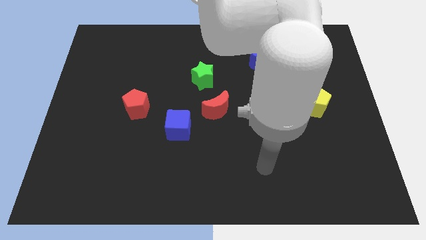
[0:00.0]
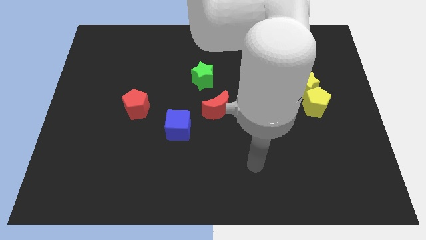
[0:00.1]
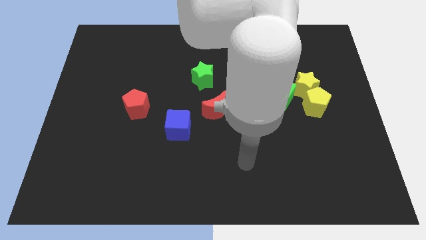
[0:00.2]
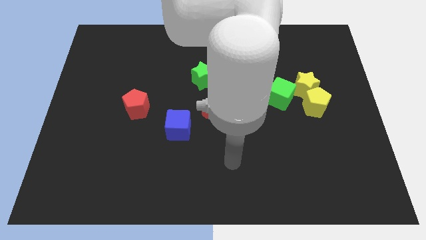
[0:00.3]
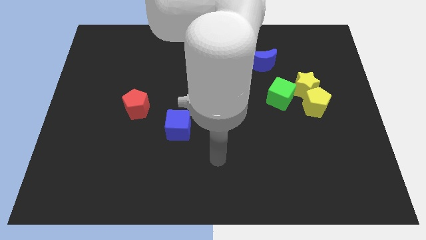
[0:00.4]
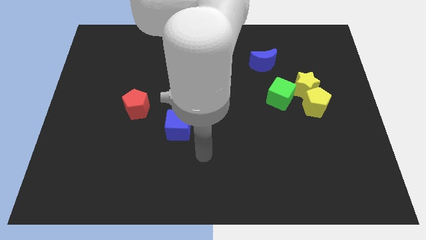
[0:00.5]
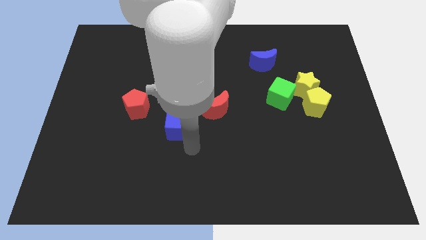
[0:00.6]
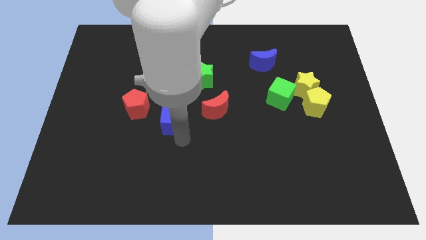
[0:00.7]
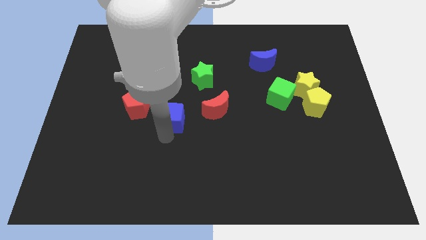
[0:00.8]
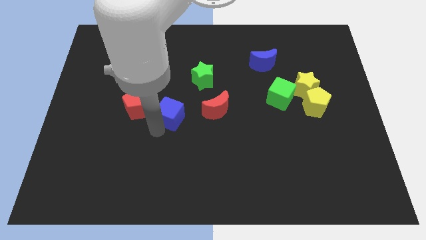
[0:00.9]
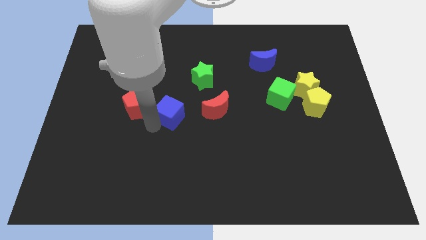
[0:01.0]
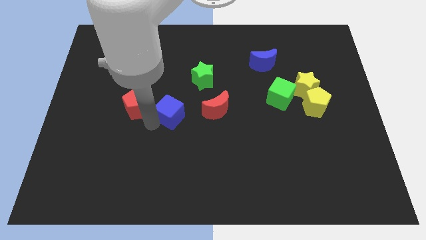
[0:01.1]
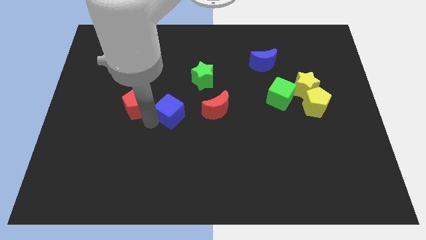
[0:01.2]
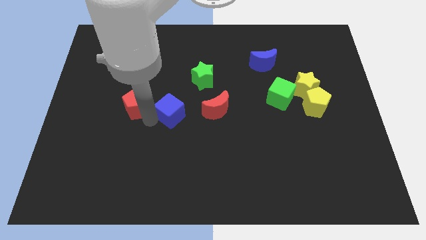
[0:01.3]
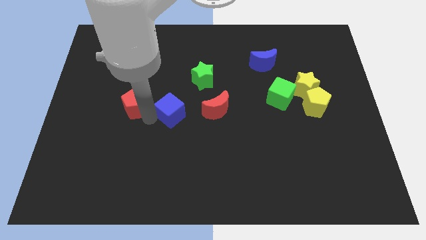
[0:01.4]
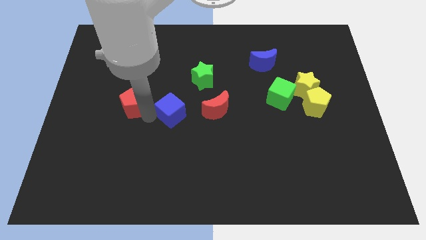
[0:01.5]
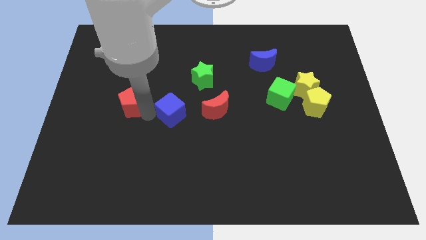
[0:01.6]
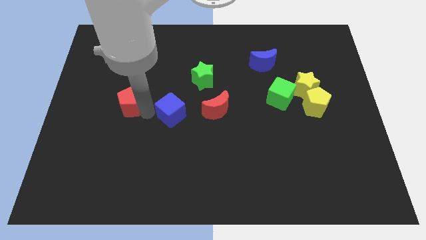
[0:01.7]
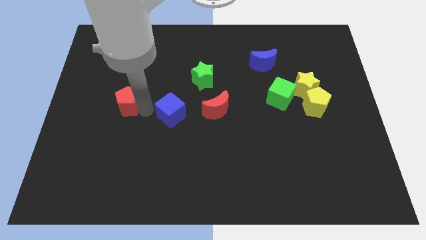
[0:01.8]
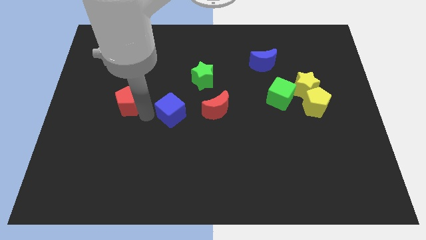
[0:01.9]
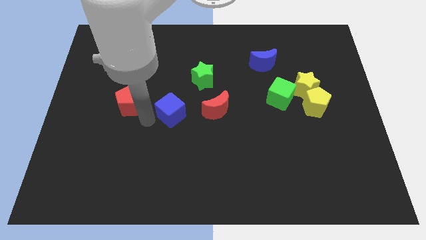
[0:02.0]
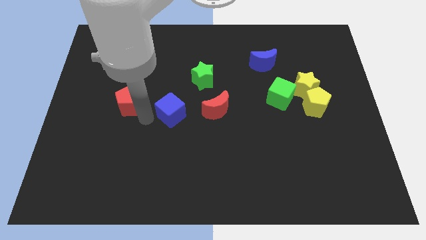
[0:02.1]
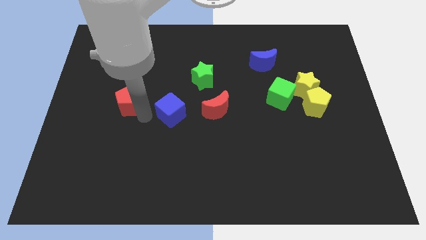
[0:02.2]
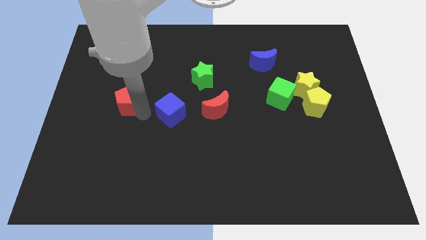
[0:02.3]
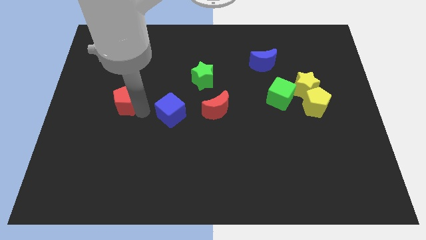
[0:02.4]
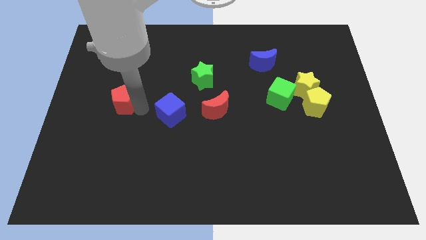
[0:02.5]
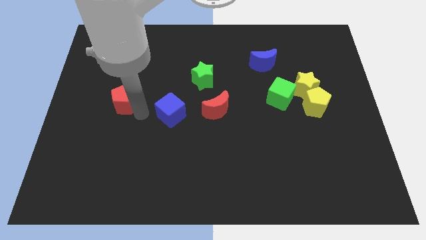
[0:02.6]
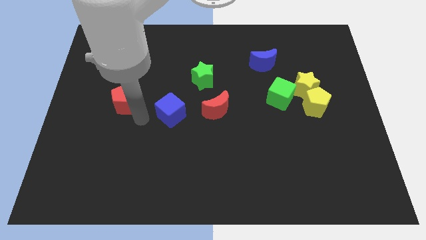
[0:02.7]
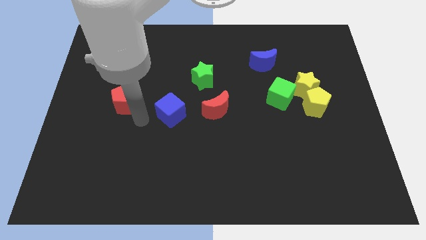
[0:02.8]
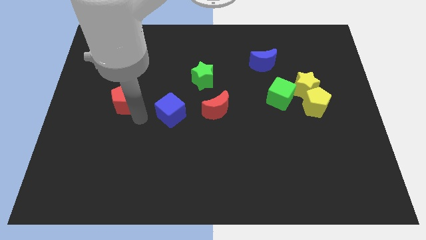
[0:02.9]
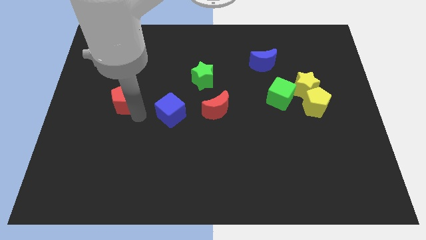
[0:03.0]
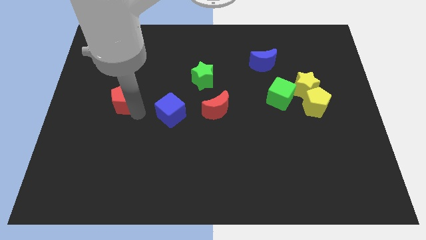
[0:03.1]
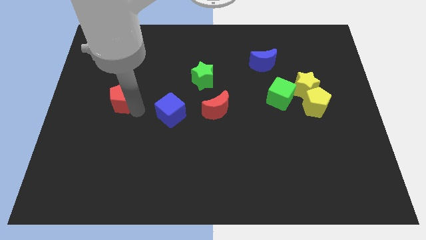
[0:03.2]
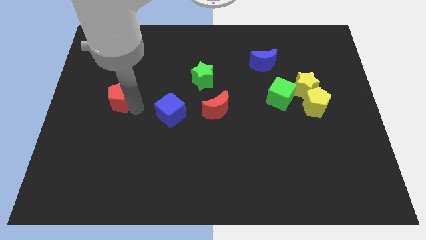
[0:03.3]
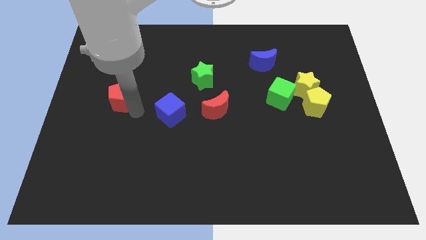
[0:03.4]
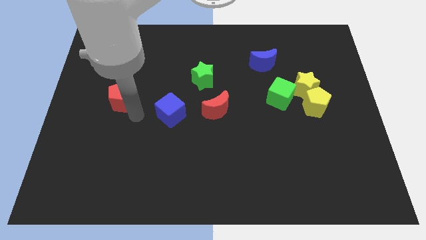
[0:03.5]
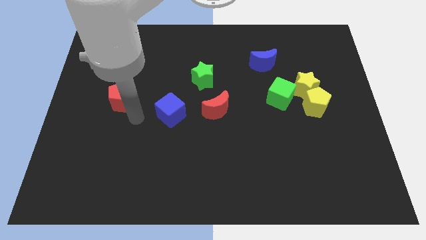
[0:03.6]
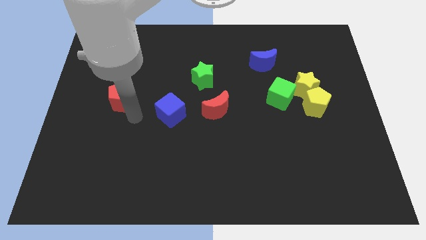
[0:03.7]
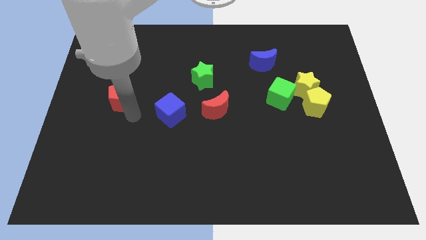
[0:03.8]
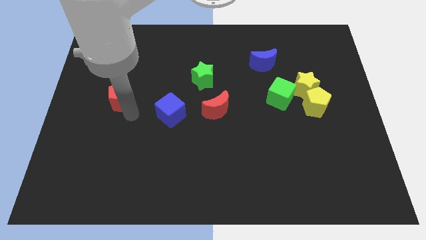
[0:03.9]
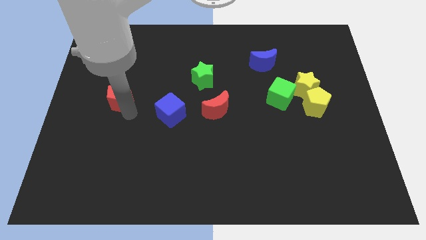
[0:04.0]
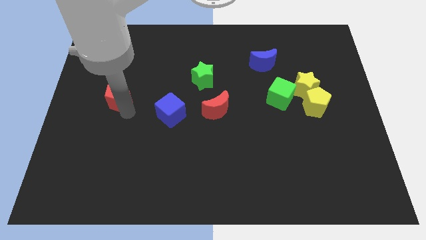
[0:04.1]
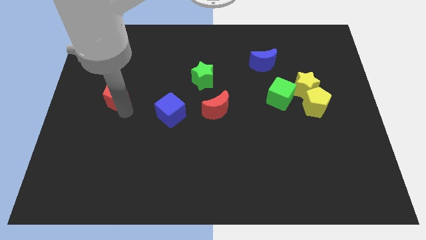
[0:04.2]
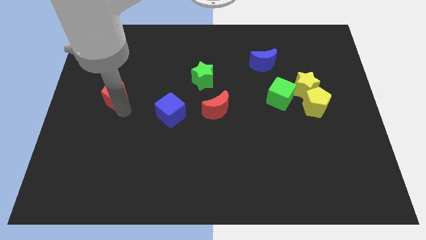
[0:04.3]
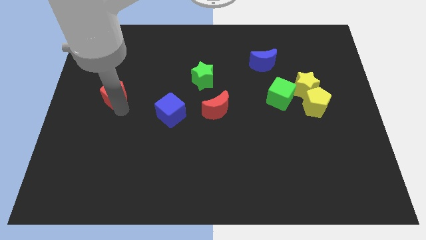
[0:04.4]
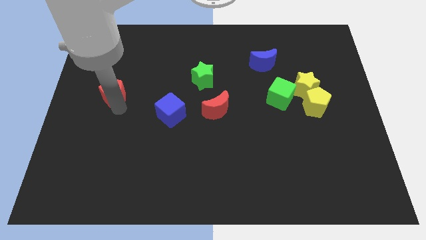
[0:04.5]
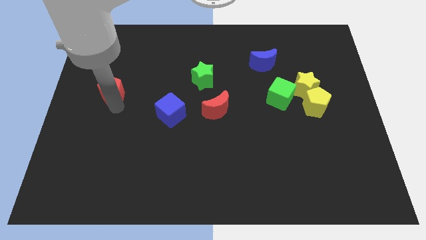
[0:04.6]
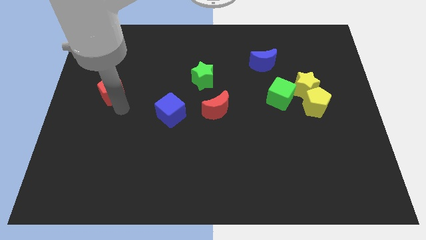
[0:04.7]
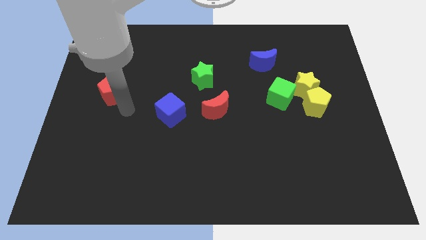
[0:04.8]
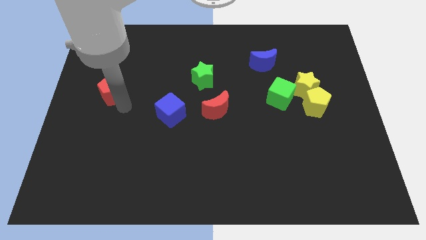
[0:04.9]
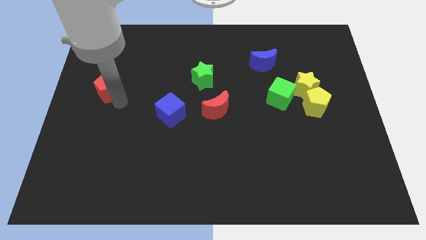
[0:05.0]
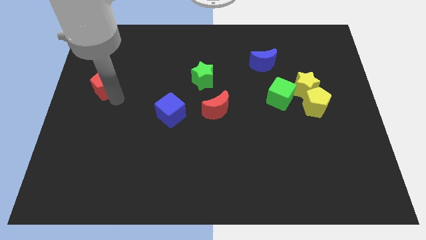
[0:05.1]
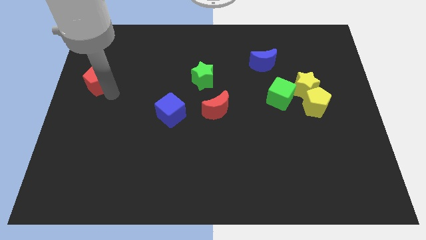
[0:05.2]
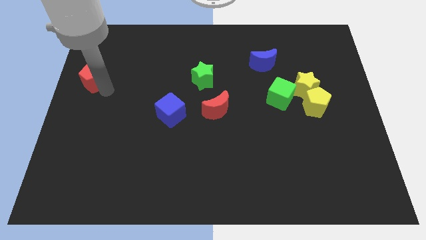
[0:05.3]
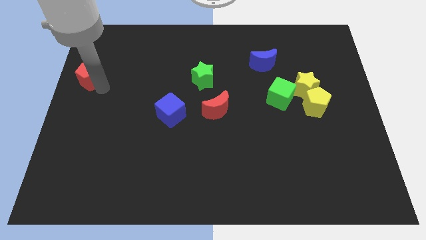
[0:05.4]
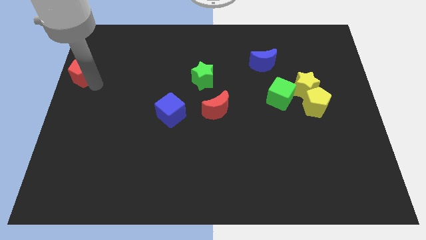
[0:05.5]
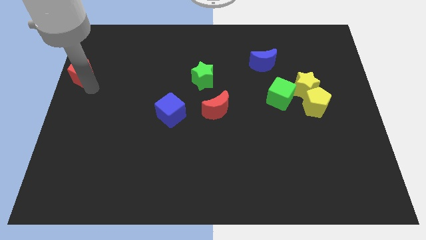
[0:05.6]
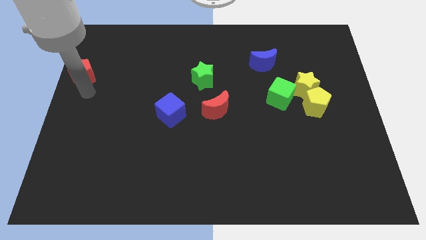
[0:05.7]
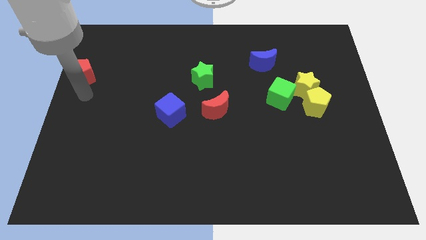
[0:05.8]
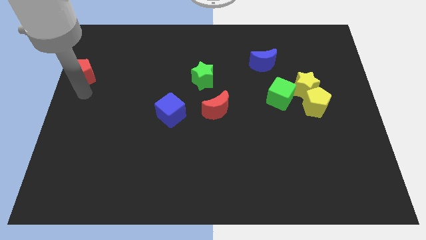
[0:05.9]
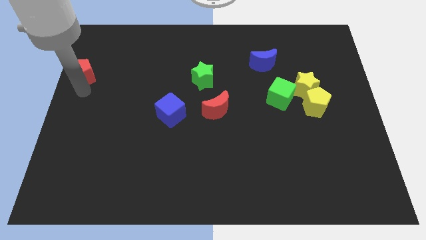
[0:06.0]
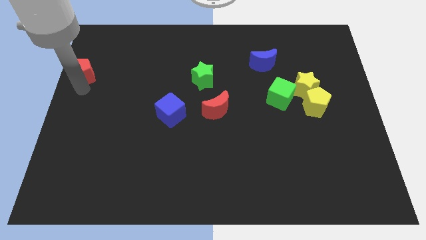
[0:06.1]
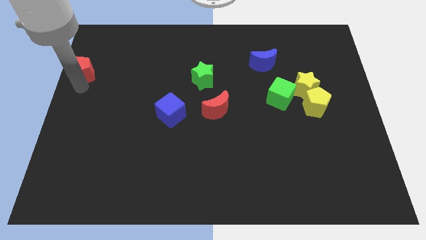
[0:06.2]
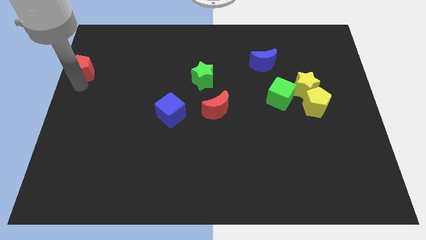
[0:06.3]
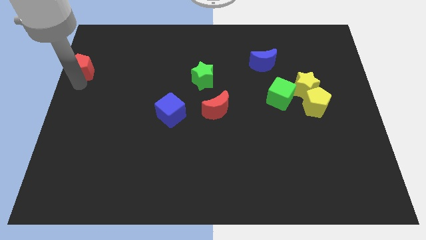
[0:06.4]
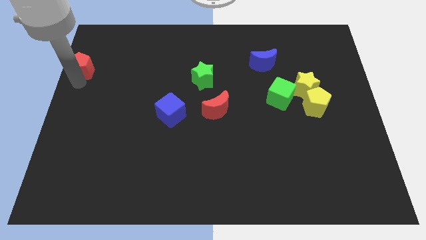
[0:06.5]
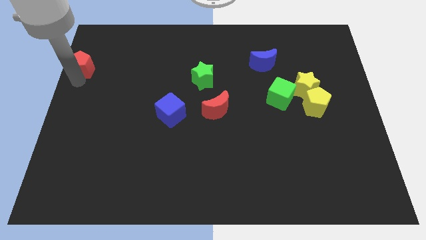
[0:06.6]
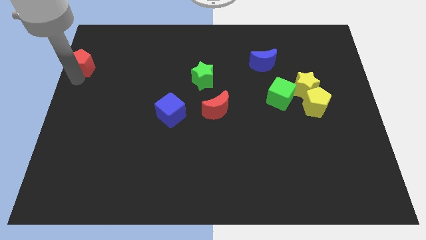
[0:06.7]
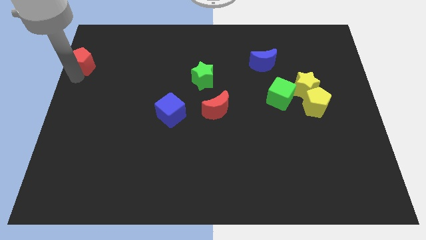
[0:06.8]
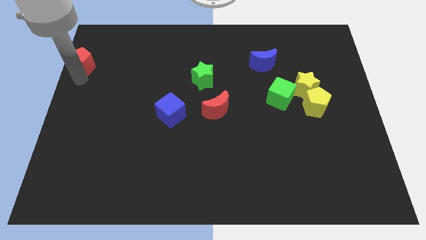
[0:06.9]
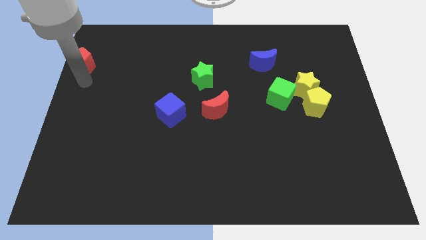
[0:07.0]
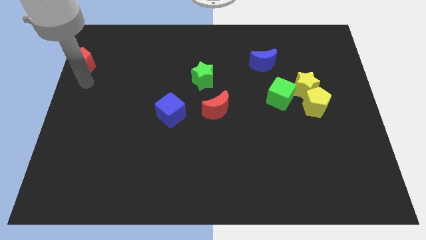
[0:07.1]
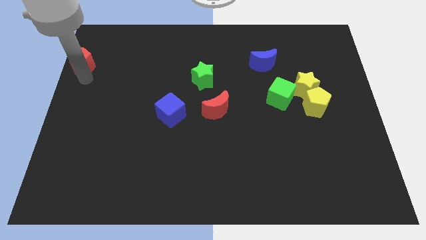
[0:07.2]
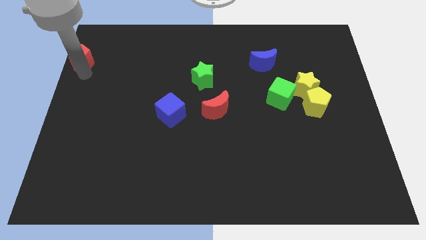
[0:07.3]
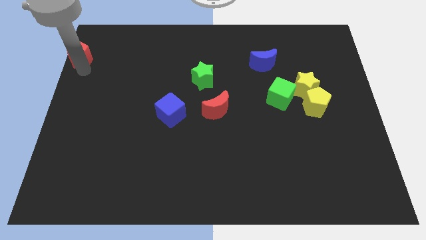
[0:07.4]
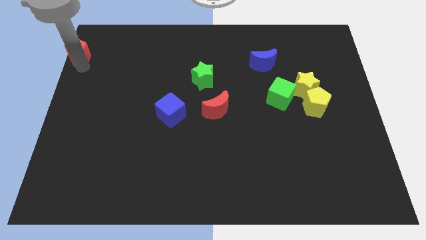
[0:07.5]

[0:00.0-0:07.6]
put the red pentagon to the top left of the board
